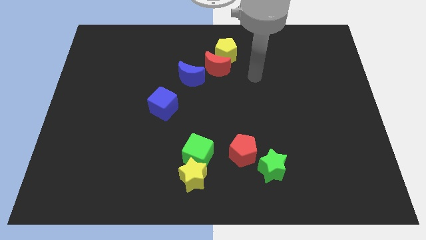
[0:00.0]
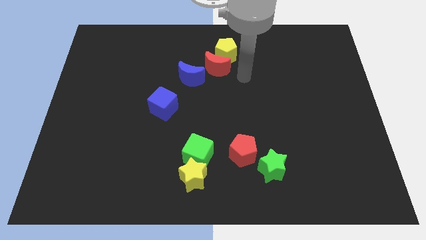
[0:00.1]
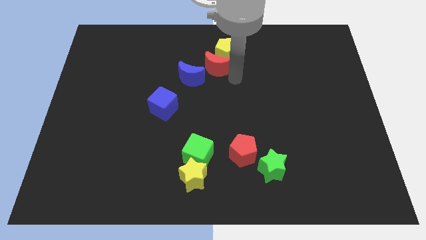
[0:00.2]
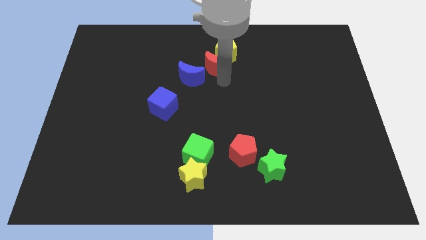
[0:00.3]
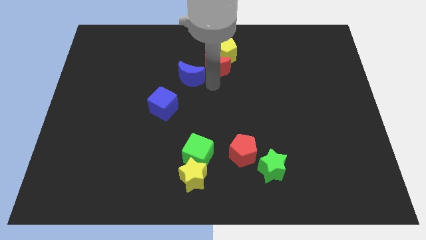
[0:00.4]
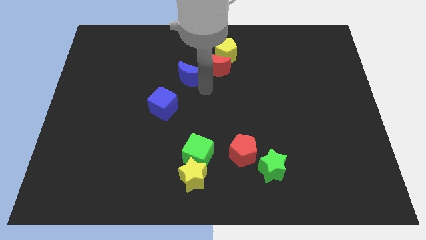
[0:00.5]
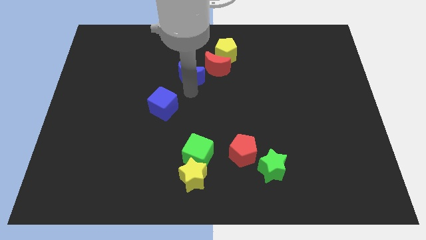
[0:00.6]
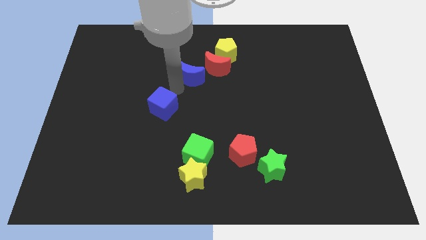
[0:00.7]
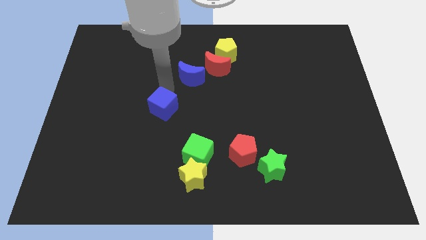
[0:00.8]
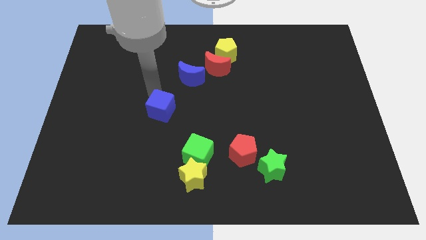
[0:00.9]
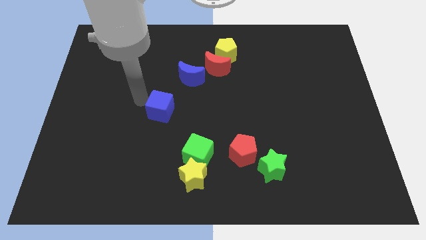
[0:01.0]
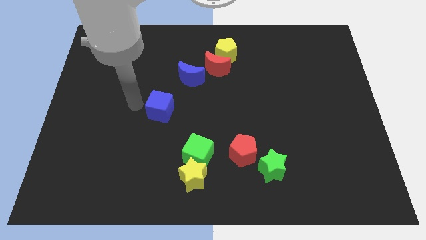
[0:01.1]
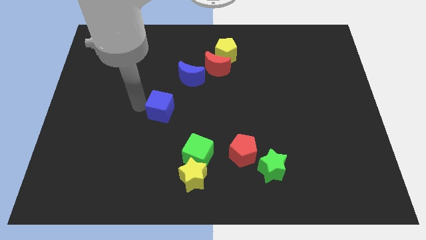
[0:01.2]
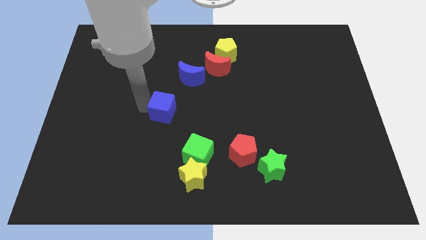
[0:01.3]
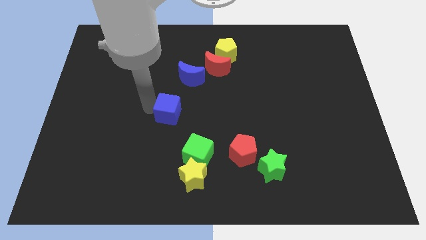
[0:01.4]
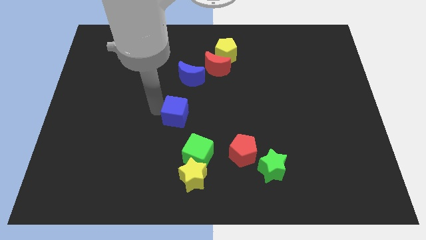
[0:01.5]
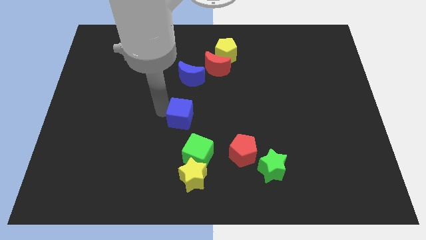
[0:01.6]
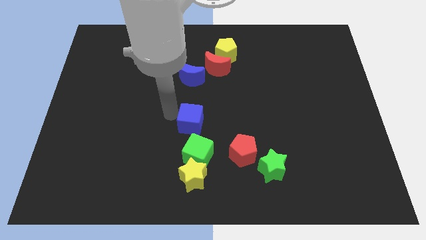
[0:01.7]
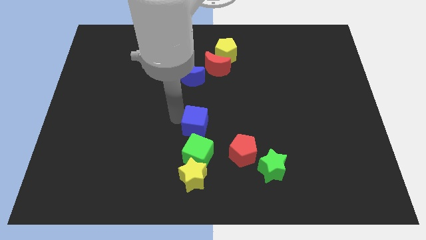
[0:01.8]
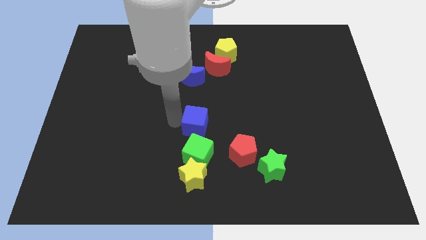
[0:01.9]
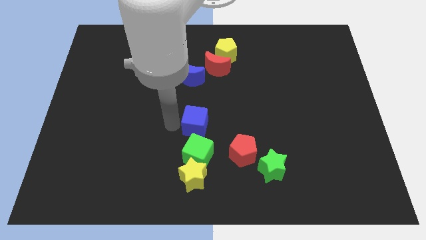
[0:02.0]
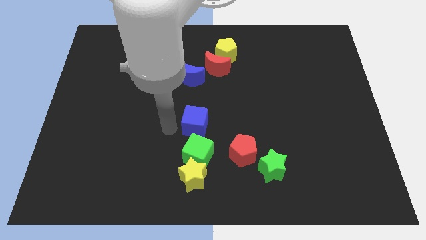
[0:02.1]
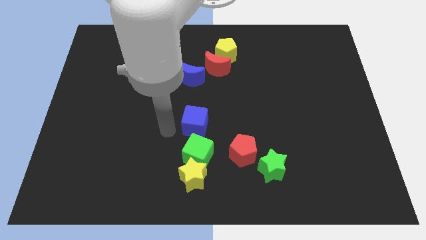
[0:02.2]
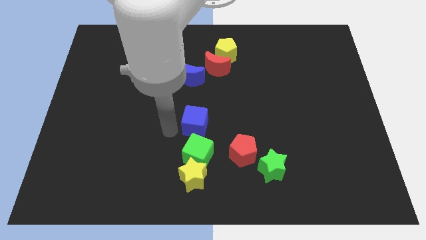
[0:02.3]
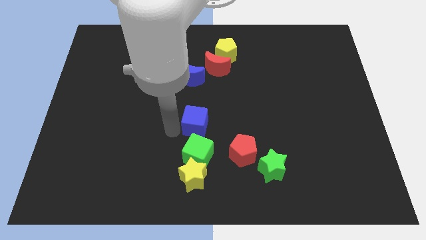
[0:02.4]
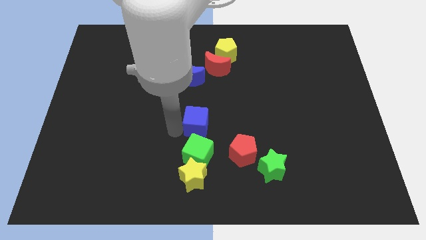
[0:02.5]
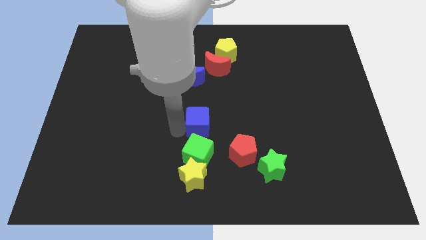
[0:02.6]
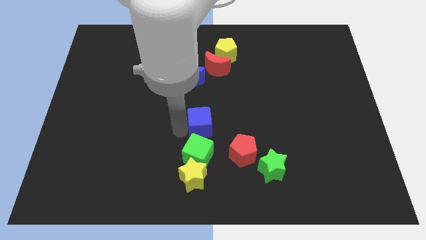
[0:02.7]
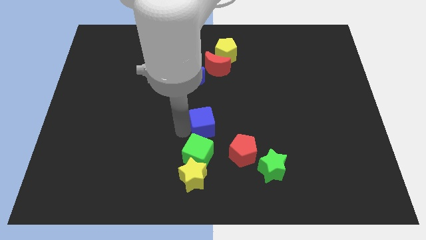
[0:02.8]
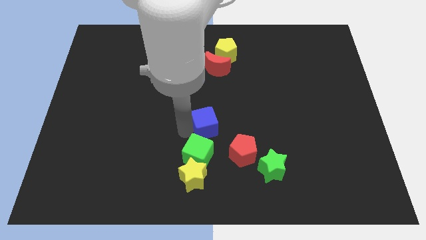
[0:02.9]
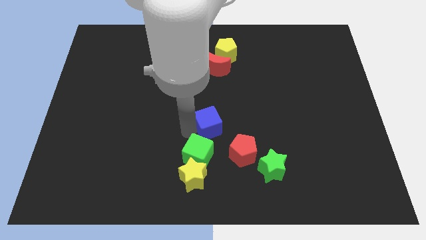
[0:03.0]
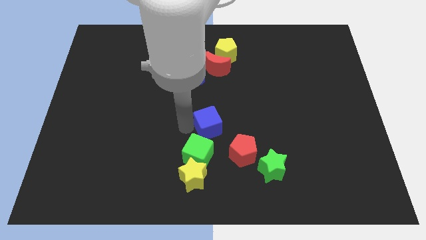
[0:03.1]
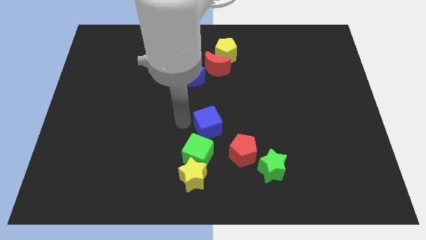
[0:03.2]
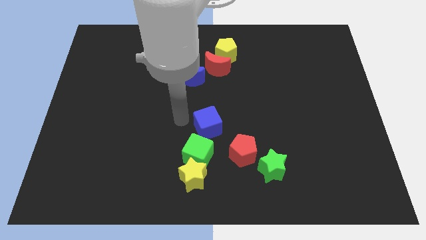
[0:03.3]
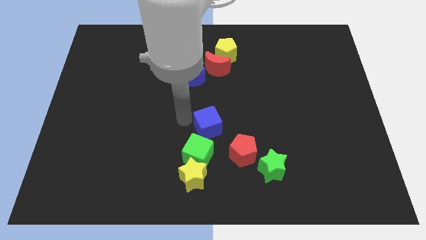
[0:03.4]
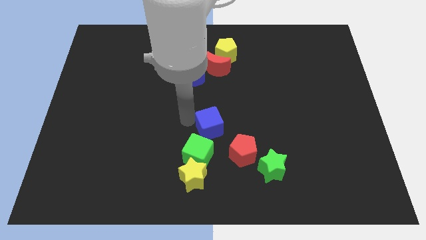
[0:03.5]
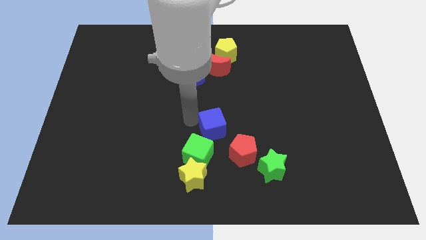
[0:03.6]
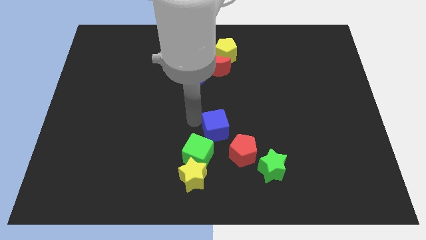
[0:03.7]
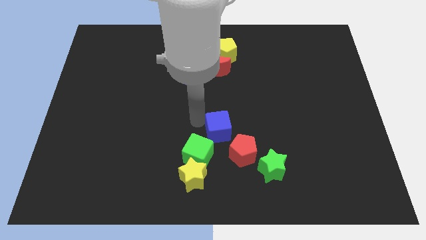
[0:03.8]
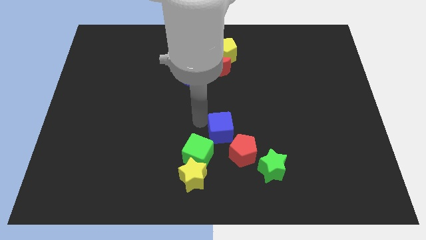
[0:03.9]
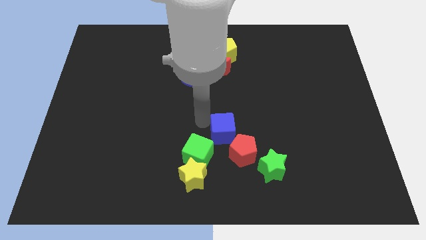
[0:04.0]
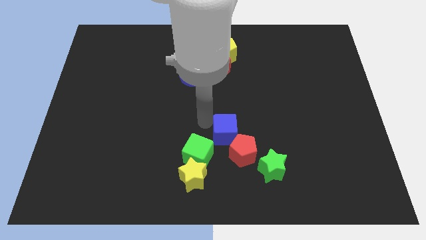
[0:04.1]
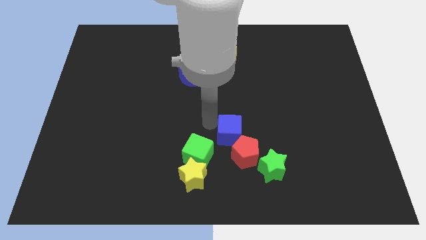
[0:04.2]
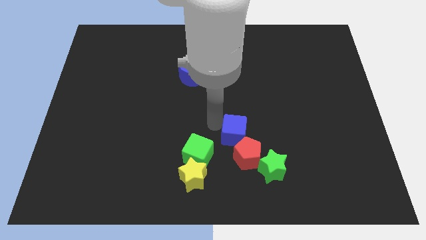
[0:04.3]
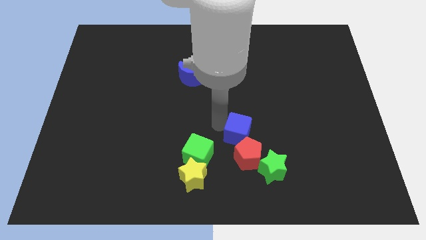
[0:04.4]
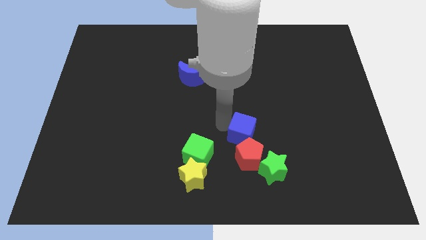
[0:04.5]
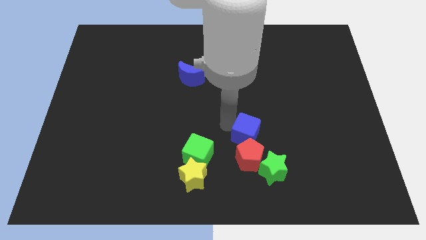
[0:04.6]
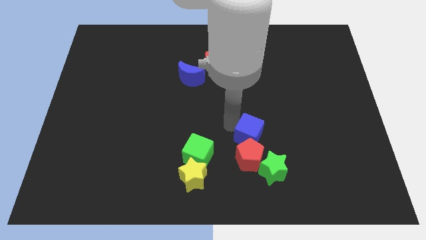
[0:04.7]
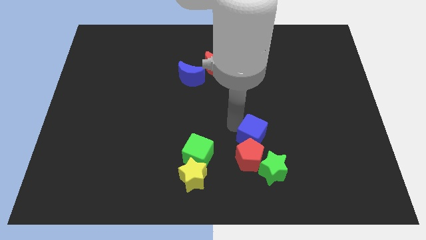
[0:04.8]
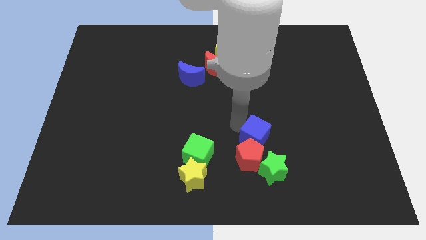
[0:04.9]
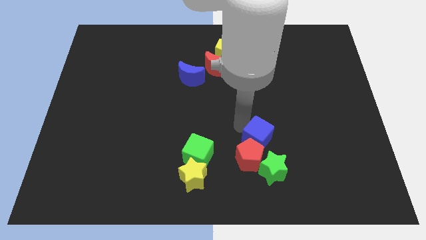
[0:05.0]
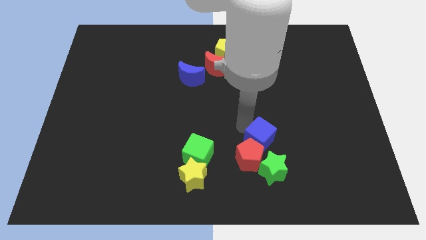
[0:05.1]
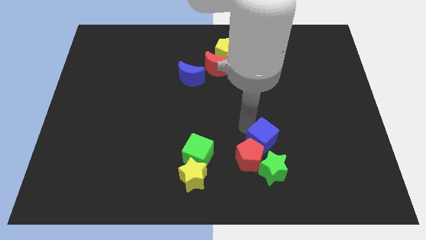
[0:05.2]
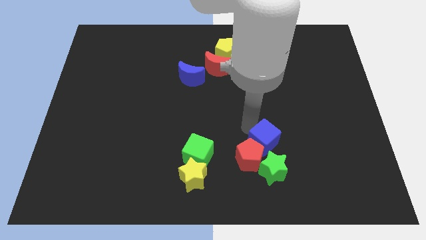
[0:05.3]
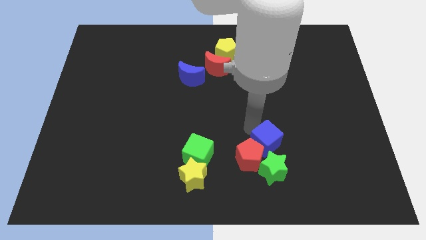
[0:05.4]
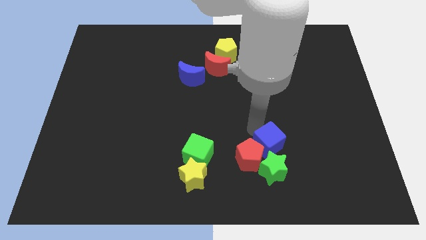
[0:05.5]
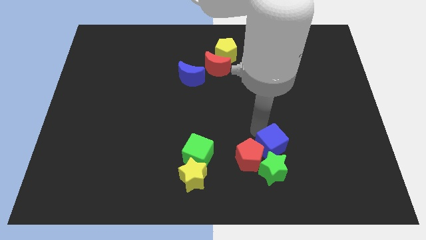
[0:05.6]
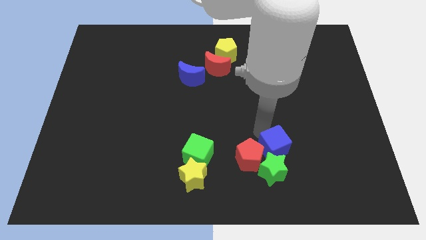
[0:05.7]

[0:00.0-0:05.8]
slide the blue cube next to the green star
